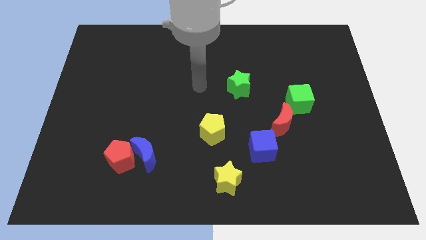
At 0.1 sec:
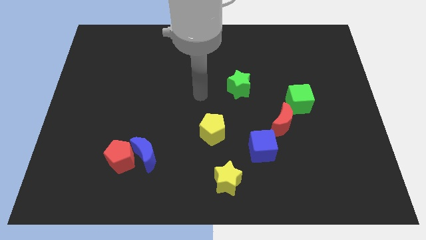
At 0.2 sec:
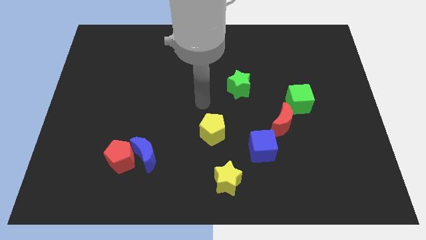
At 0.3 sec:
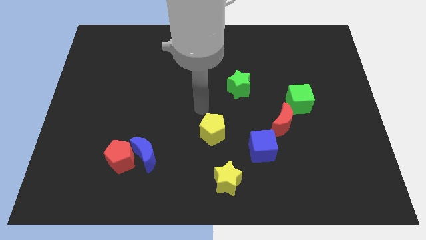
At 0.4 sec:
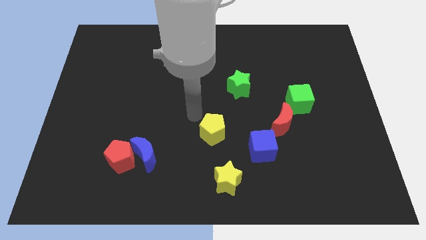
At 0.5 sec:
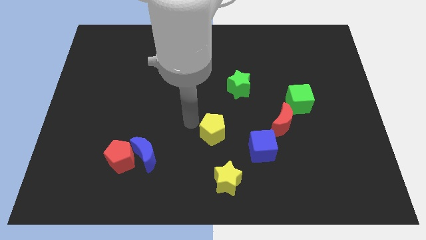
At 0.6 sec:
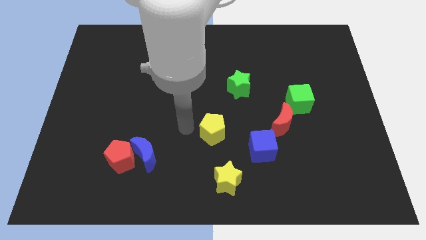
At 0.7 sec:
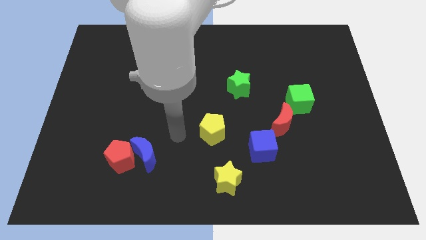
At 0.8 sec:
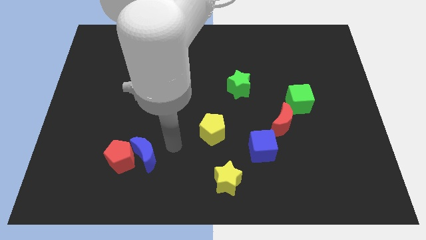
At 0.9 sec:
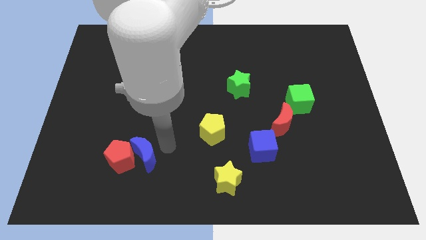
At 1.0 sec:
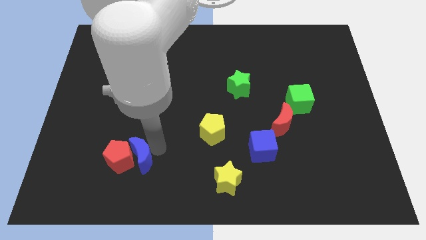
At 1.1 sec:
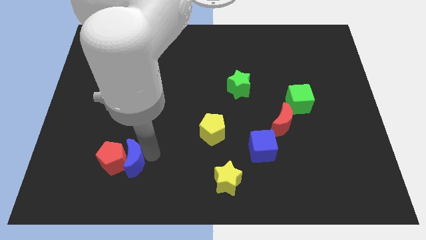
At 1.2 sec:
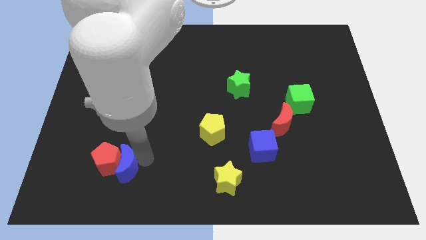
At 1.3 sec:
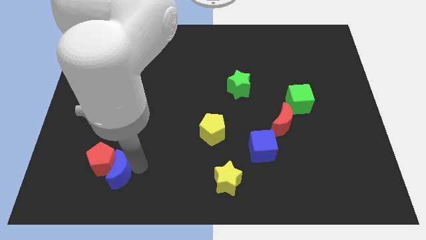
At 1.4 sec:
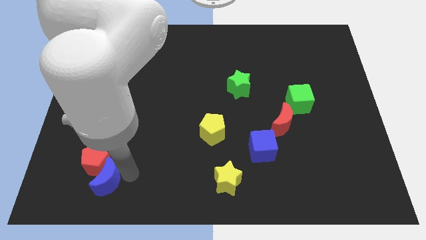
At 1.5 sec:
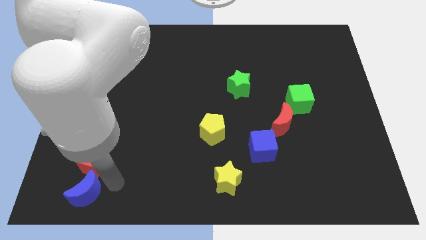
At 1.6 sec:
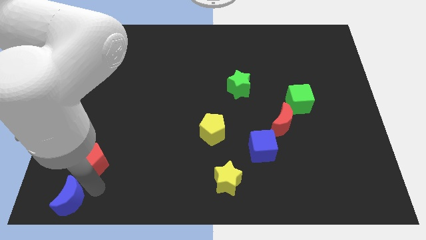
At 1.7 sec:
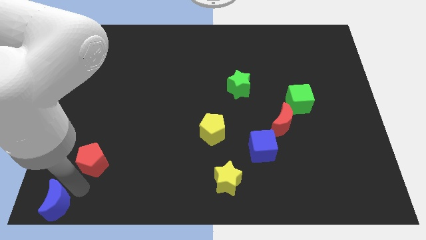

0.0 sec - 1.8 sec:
move the red pentagon away from the blue moon

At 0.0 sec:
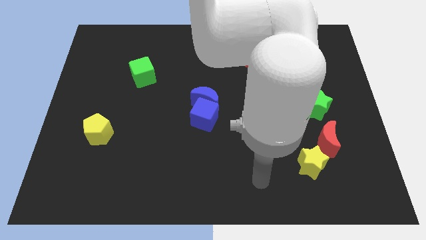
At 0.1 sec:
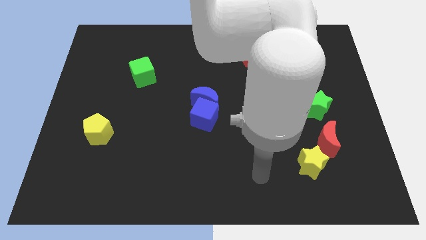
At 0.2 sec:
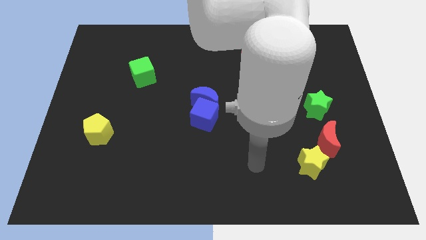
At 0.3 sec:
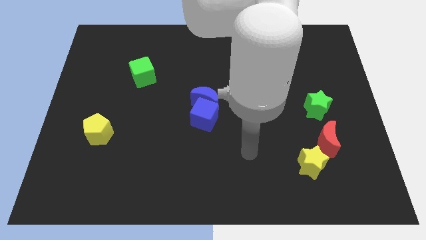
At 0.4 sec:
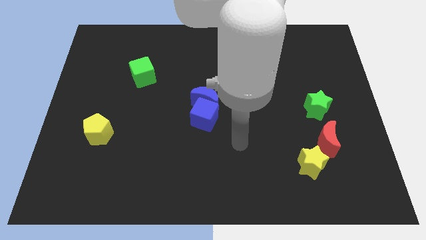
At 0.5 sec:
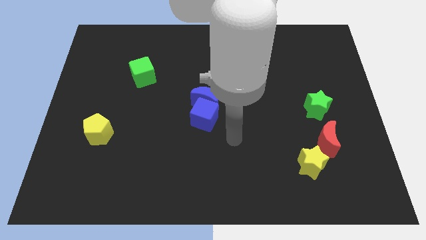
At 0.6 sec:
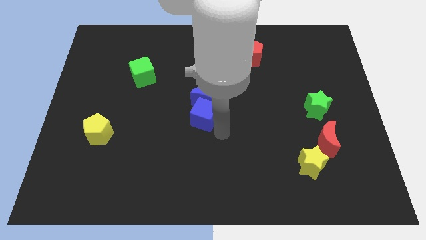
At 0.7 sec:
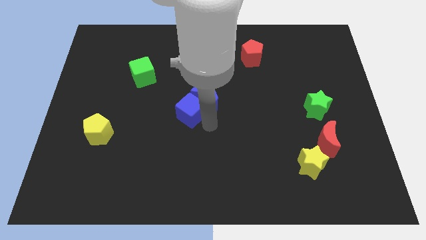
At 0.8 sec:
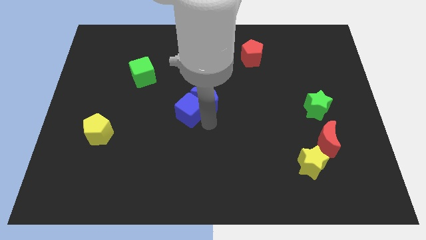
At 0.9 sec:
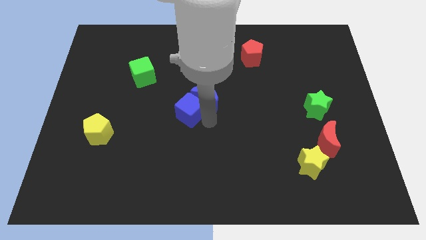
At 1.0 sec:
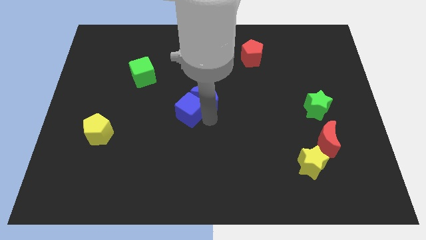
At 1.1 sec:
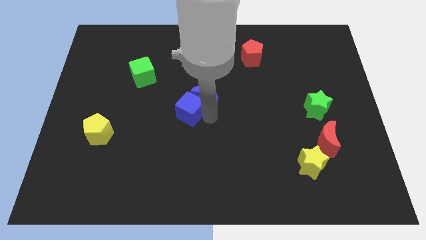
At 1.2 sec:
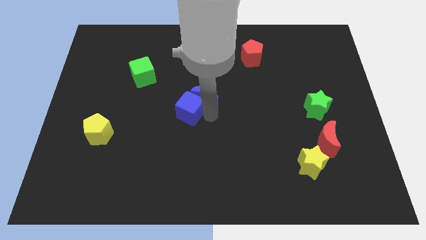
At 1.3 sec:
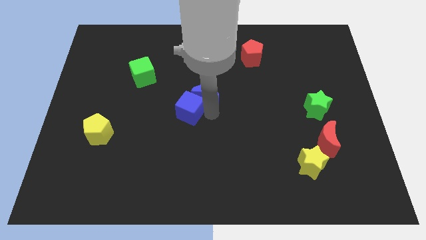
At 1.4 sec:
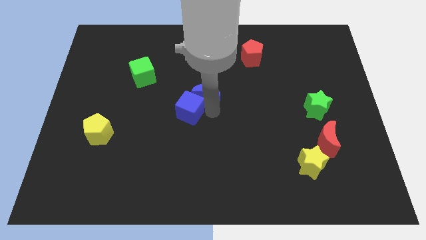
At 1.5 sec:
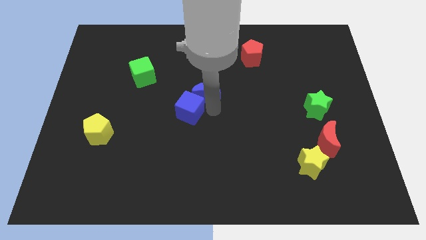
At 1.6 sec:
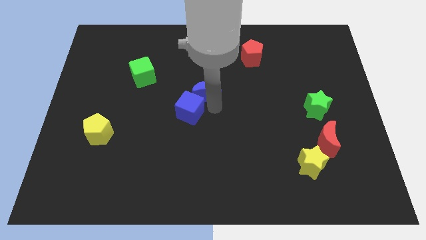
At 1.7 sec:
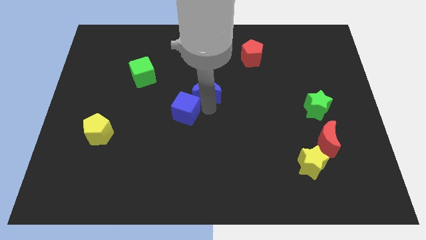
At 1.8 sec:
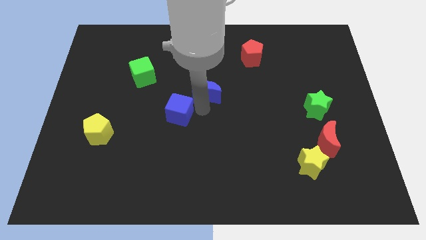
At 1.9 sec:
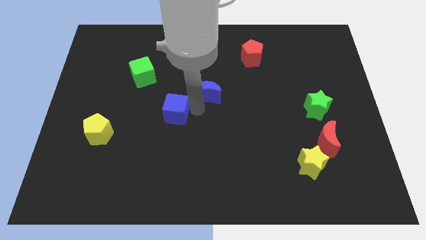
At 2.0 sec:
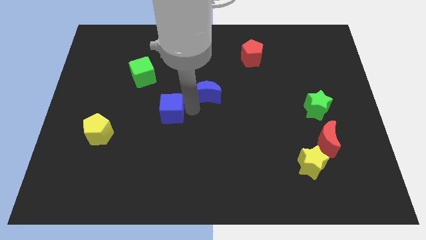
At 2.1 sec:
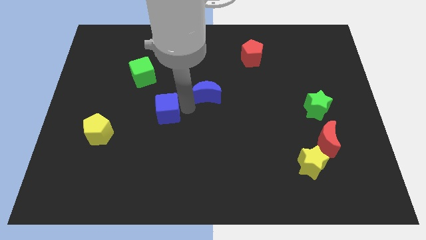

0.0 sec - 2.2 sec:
move the blue moon away from the blue cube

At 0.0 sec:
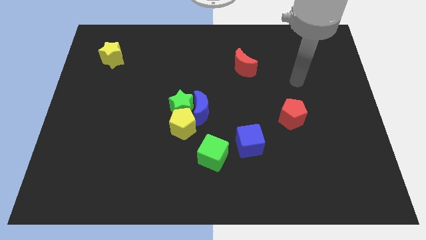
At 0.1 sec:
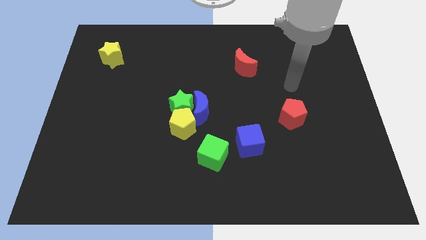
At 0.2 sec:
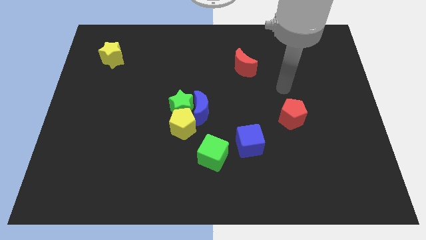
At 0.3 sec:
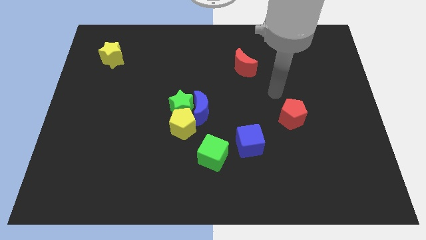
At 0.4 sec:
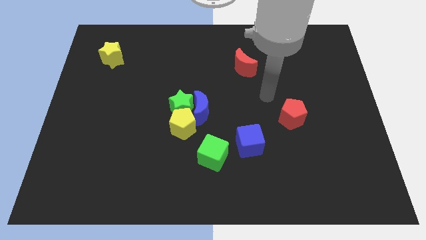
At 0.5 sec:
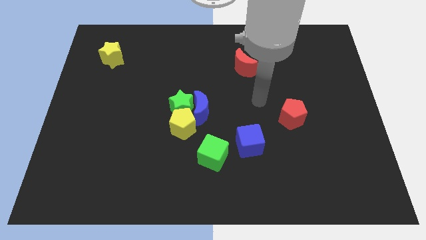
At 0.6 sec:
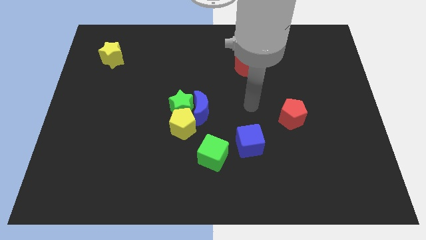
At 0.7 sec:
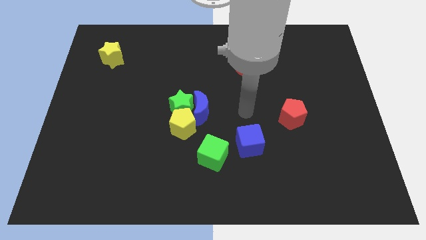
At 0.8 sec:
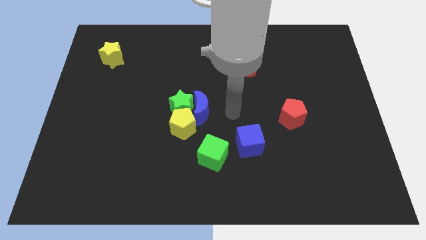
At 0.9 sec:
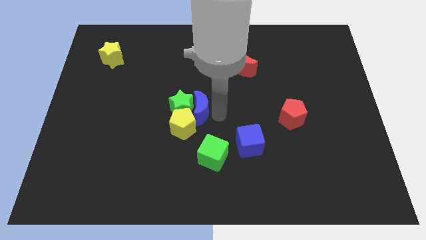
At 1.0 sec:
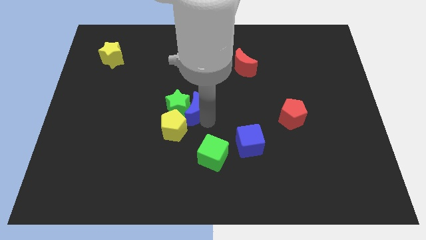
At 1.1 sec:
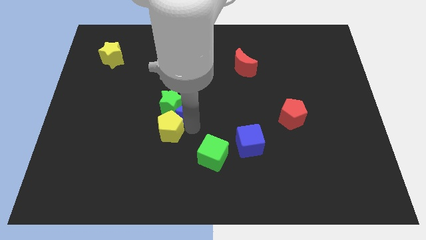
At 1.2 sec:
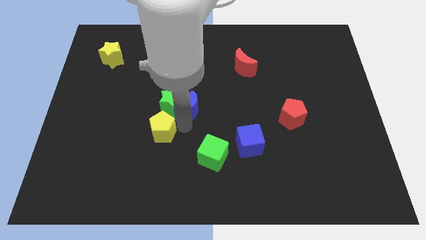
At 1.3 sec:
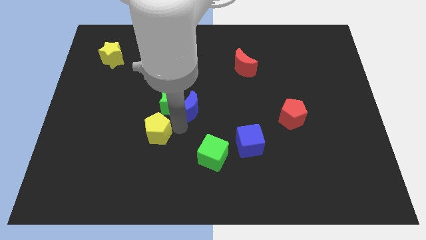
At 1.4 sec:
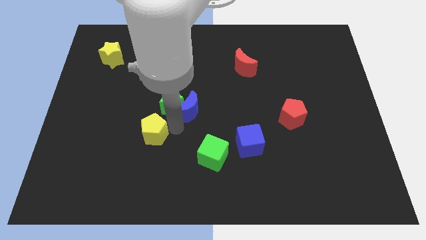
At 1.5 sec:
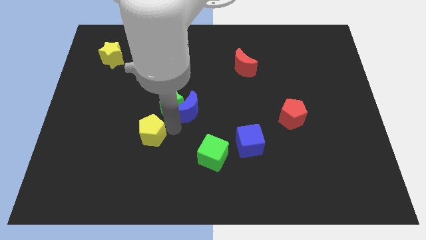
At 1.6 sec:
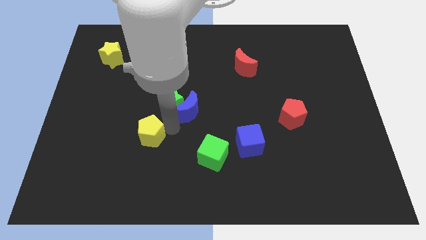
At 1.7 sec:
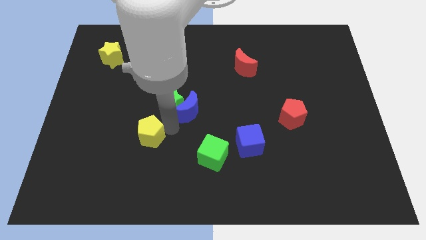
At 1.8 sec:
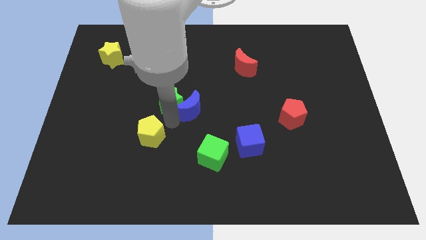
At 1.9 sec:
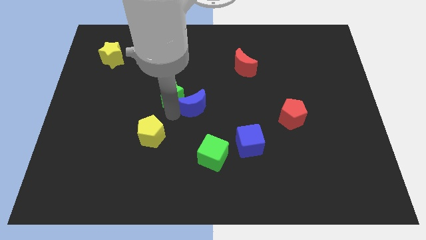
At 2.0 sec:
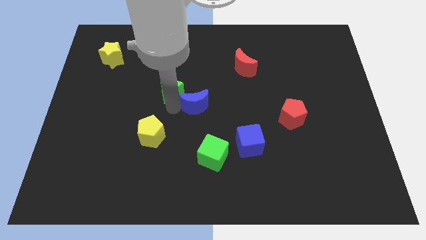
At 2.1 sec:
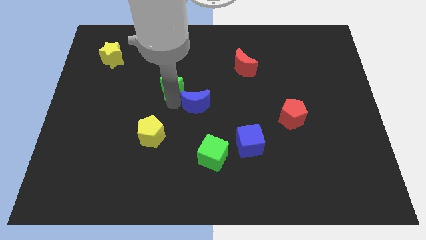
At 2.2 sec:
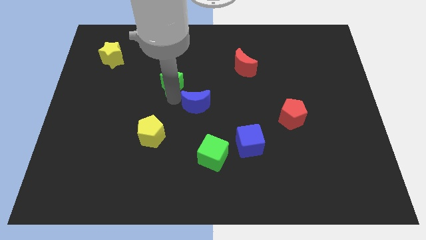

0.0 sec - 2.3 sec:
move the green star away from the blue moon and yellow pentagon

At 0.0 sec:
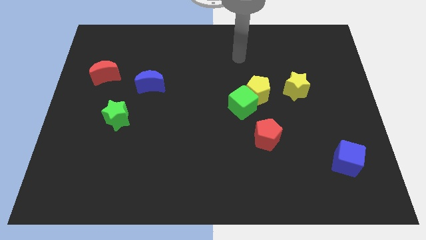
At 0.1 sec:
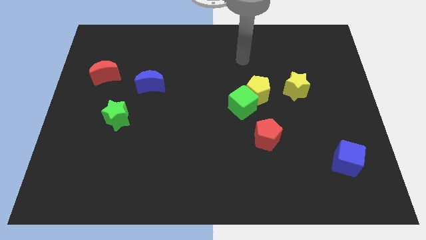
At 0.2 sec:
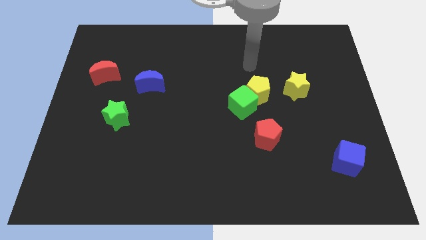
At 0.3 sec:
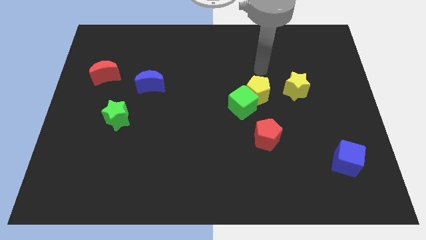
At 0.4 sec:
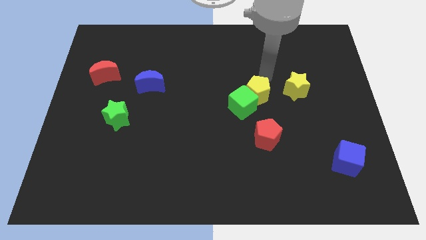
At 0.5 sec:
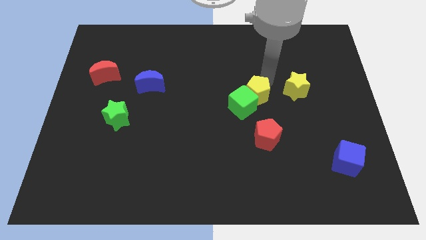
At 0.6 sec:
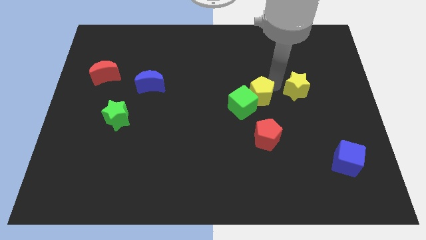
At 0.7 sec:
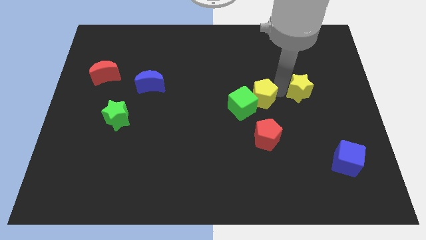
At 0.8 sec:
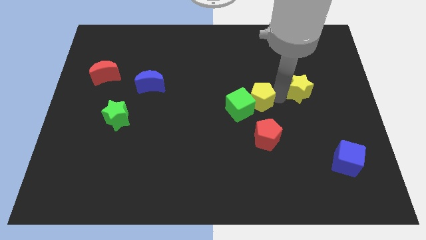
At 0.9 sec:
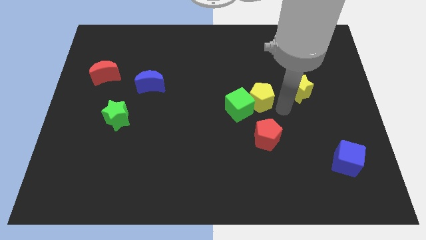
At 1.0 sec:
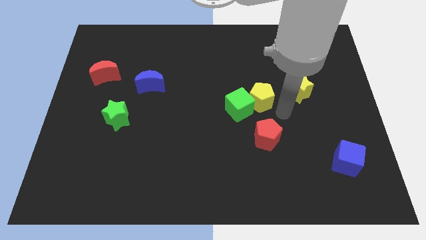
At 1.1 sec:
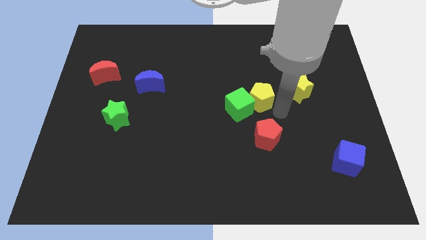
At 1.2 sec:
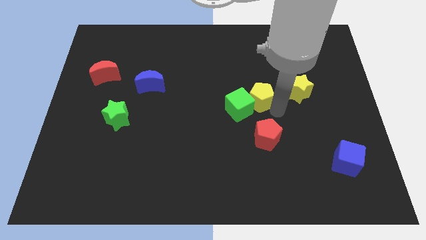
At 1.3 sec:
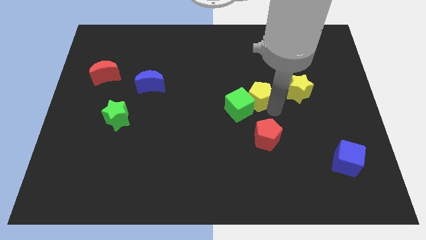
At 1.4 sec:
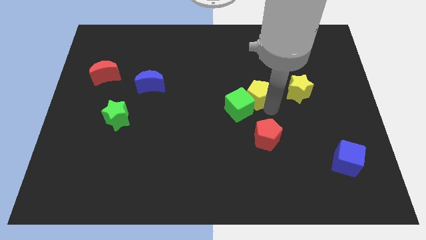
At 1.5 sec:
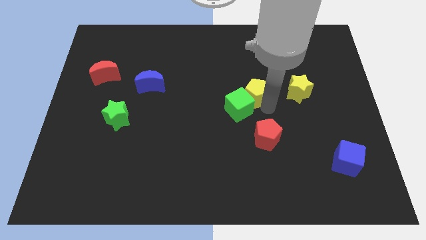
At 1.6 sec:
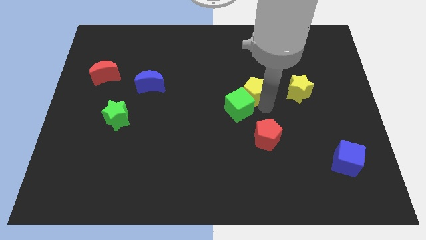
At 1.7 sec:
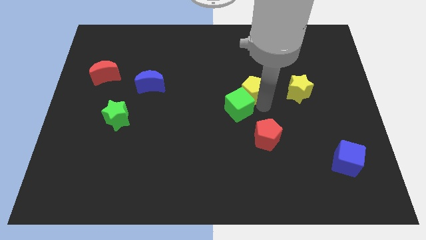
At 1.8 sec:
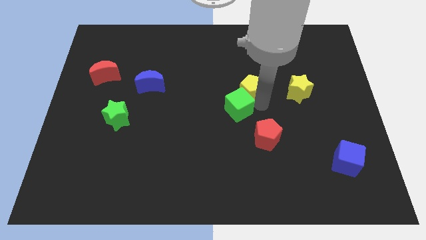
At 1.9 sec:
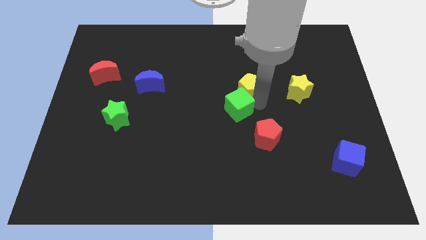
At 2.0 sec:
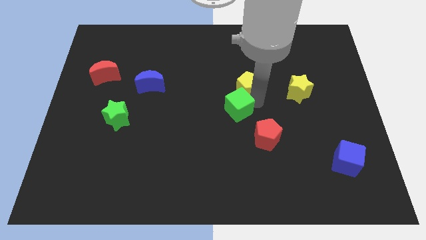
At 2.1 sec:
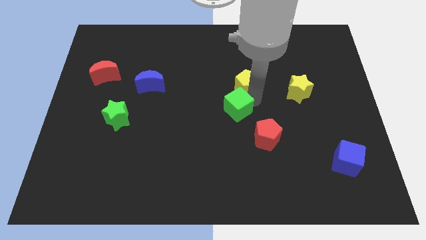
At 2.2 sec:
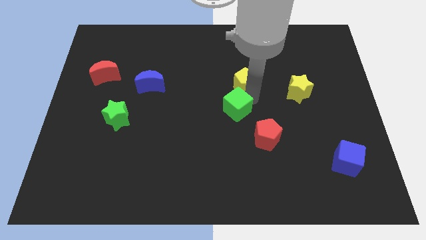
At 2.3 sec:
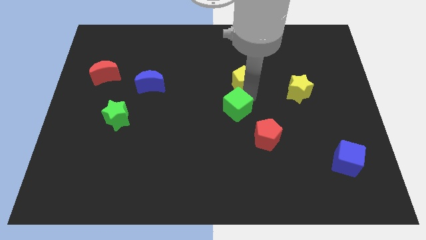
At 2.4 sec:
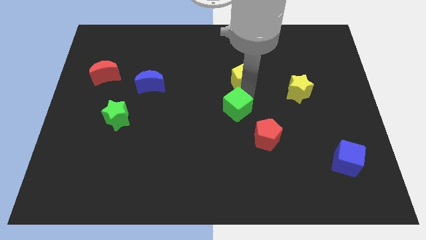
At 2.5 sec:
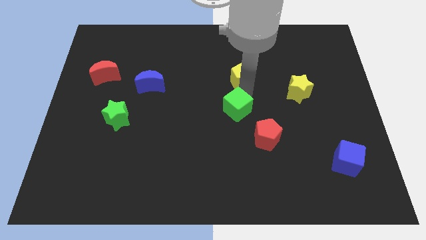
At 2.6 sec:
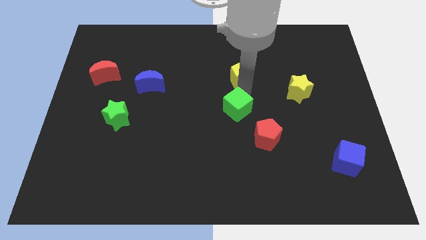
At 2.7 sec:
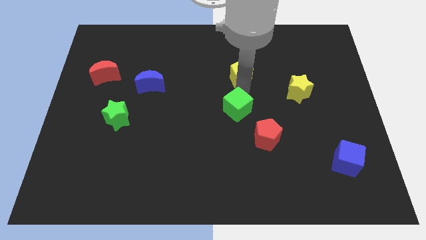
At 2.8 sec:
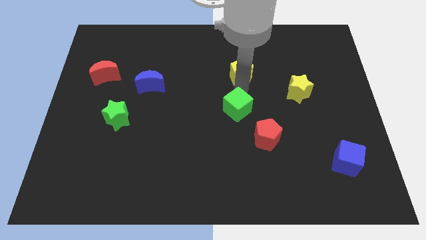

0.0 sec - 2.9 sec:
move the yellow pentagon away from the green cube and yellow star
